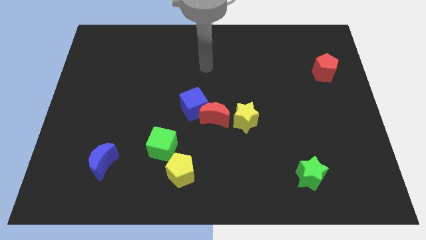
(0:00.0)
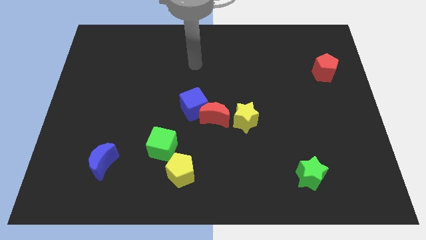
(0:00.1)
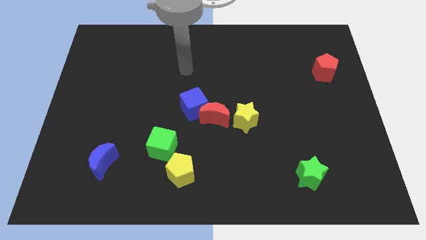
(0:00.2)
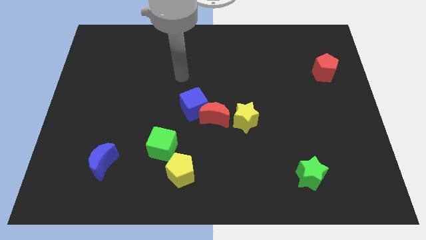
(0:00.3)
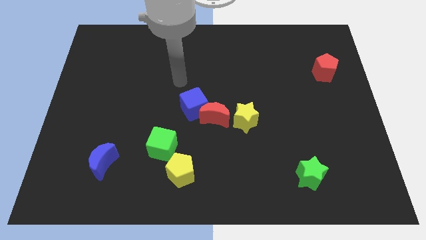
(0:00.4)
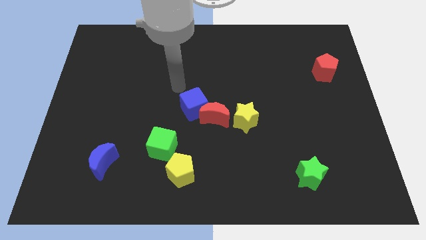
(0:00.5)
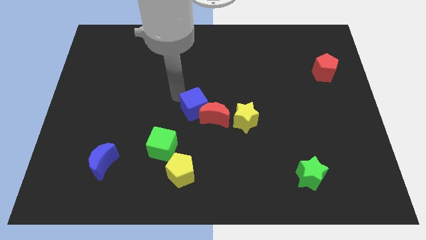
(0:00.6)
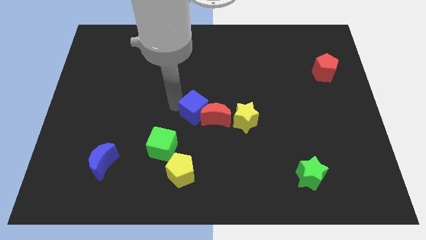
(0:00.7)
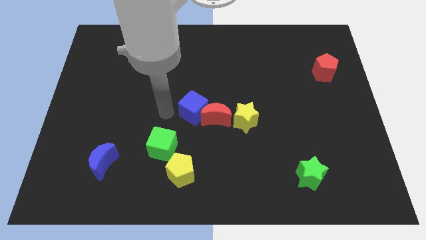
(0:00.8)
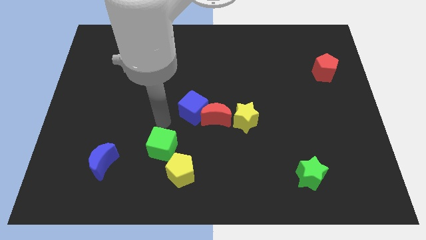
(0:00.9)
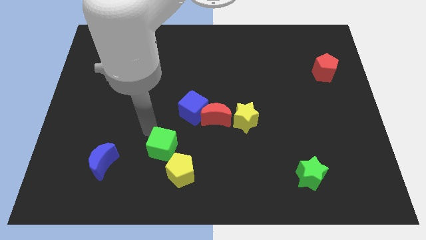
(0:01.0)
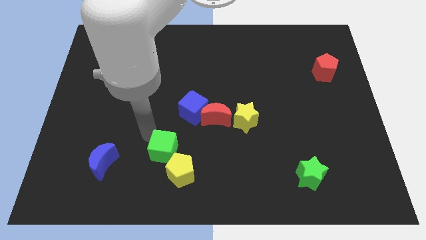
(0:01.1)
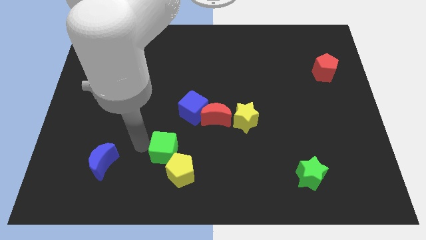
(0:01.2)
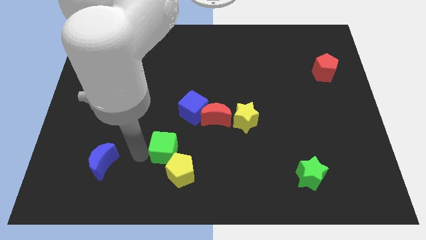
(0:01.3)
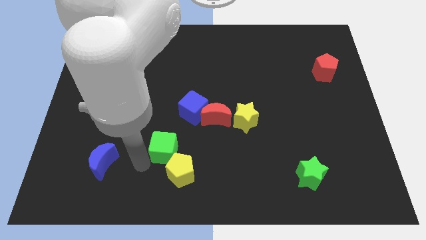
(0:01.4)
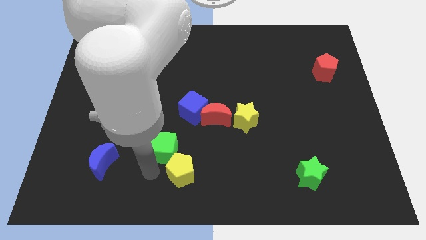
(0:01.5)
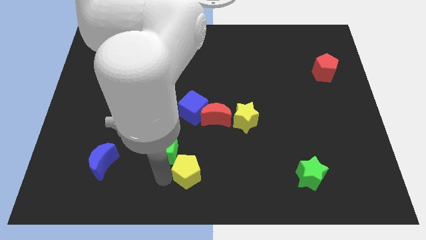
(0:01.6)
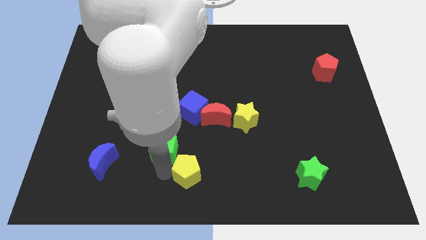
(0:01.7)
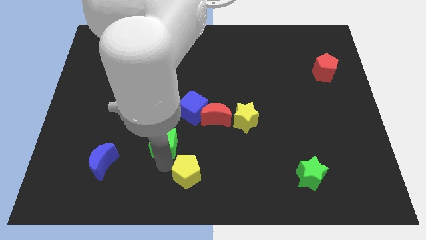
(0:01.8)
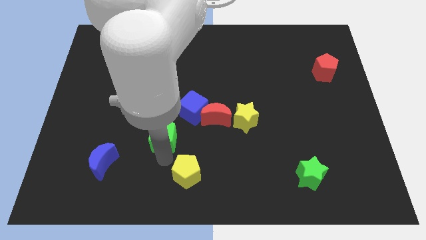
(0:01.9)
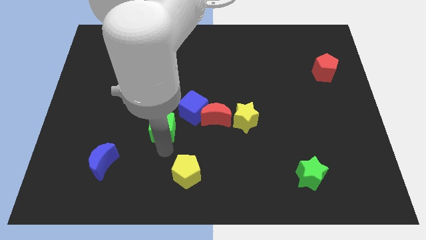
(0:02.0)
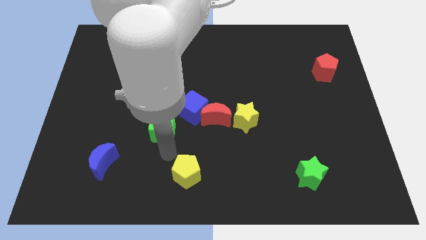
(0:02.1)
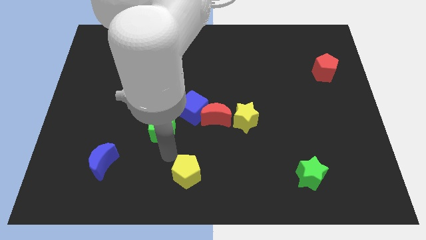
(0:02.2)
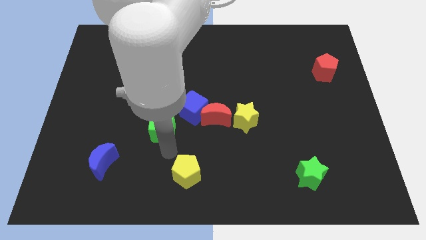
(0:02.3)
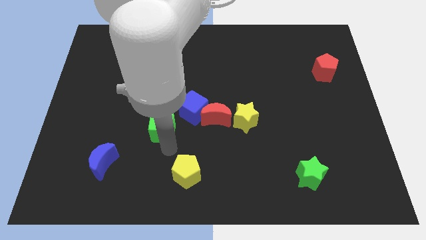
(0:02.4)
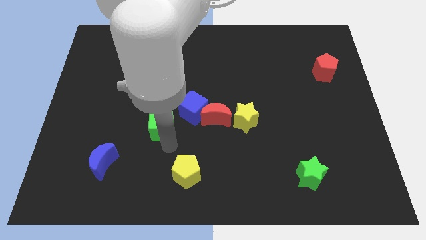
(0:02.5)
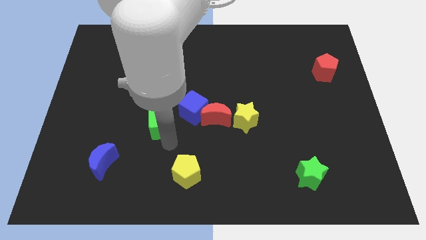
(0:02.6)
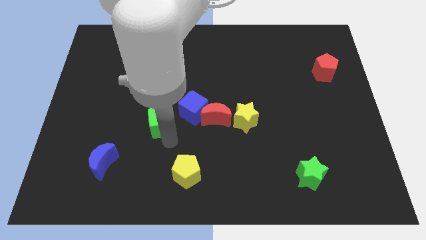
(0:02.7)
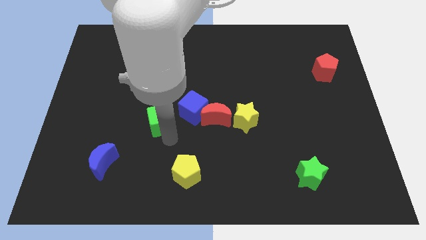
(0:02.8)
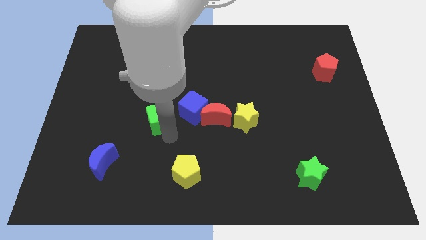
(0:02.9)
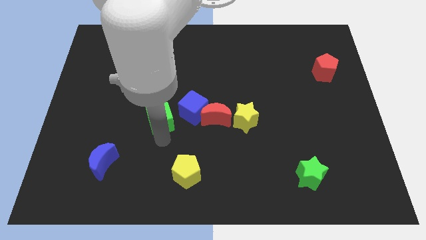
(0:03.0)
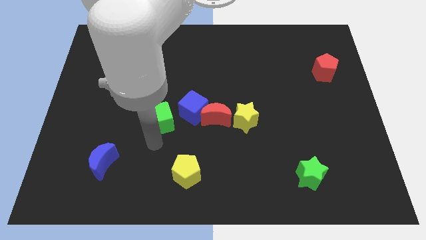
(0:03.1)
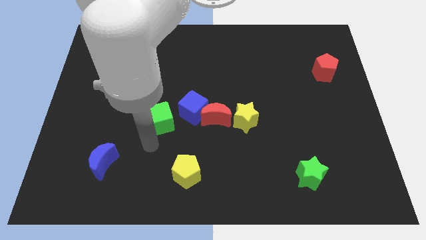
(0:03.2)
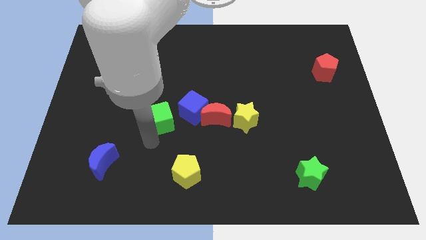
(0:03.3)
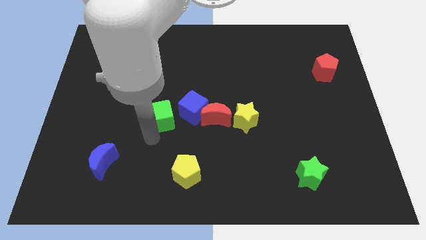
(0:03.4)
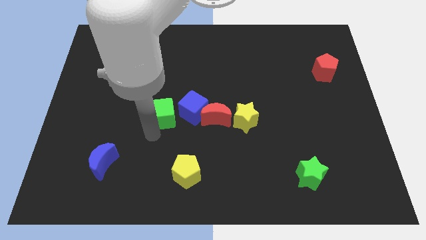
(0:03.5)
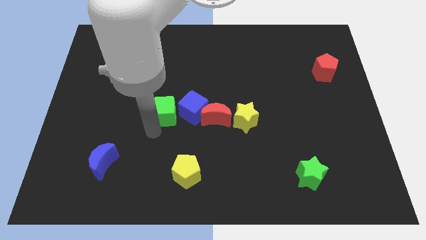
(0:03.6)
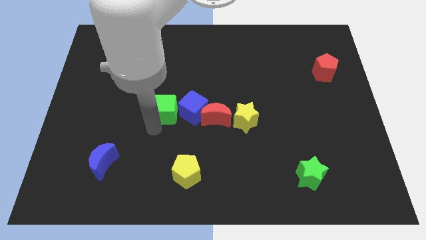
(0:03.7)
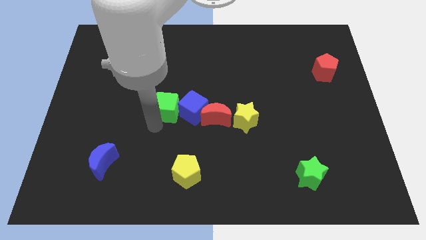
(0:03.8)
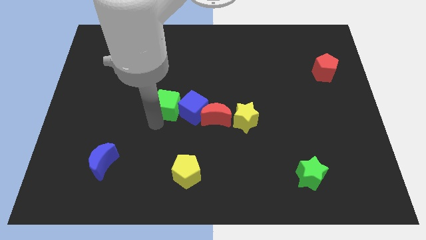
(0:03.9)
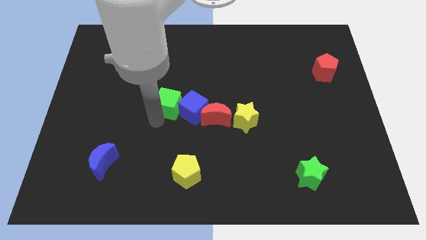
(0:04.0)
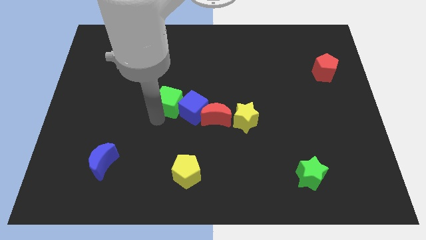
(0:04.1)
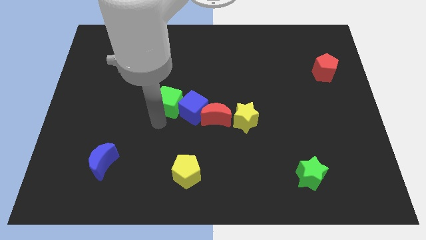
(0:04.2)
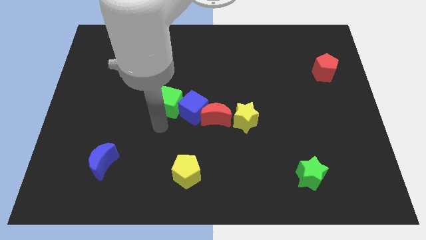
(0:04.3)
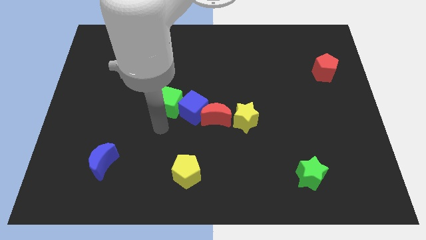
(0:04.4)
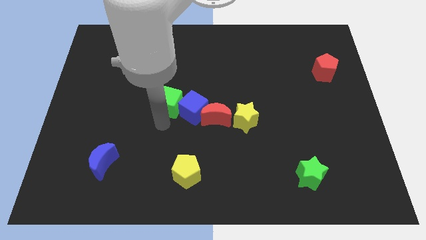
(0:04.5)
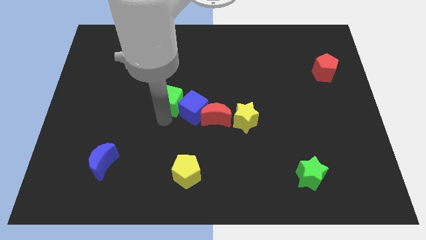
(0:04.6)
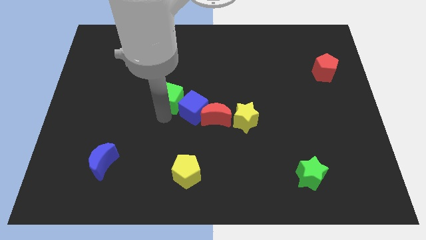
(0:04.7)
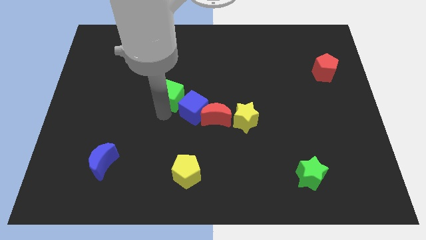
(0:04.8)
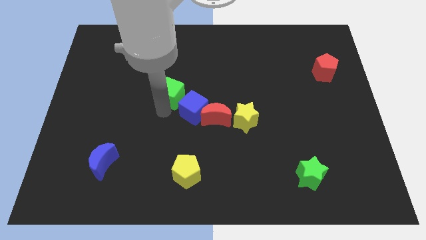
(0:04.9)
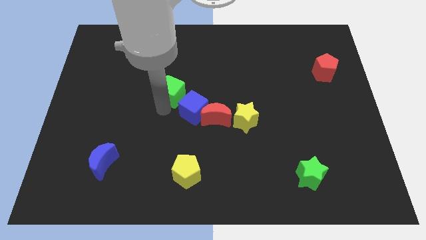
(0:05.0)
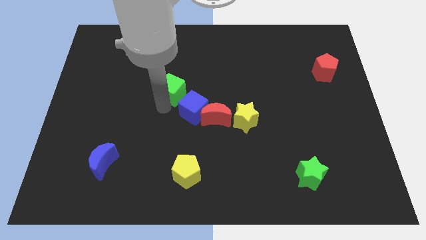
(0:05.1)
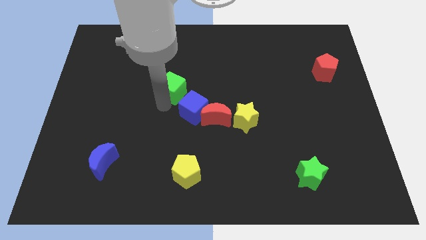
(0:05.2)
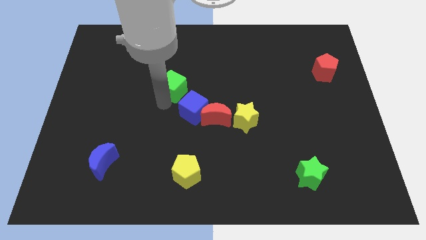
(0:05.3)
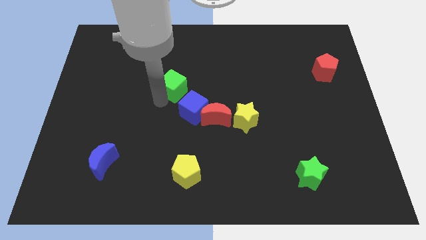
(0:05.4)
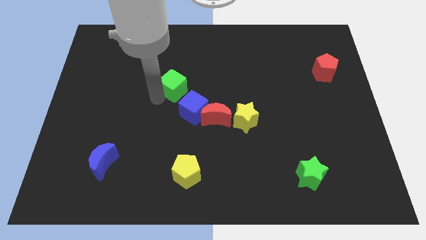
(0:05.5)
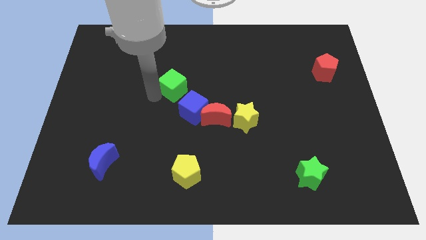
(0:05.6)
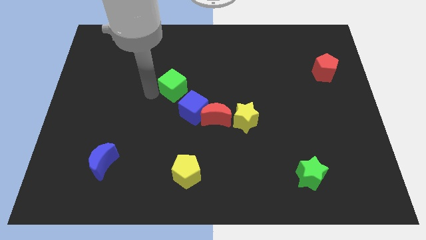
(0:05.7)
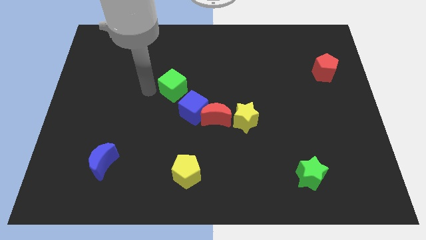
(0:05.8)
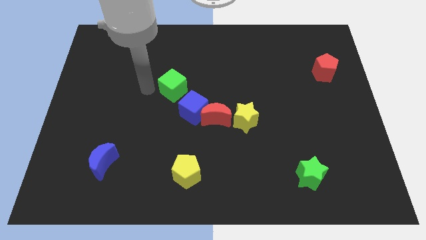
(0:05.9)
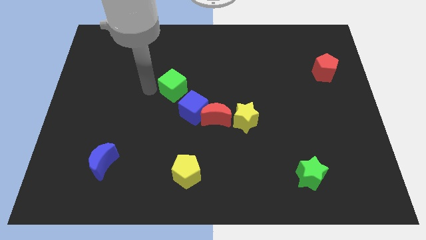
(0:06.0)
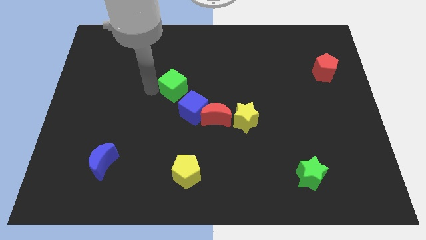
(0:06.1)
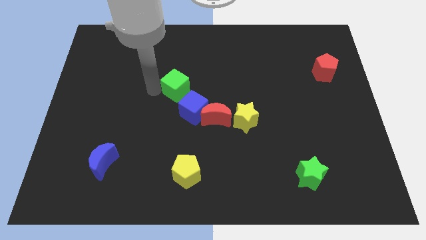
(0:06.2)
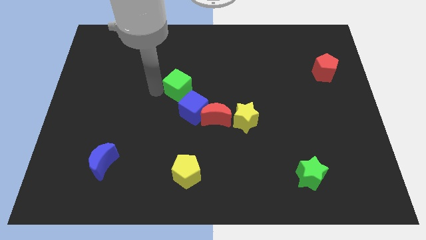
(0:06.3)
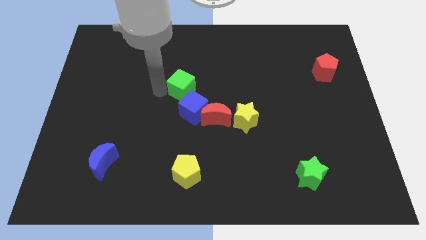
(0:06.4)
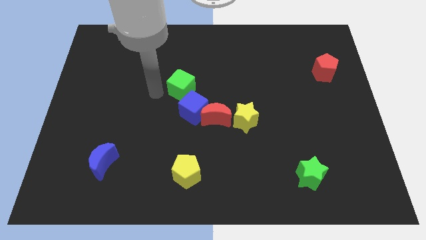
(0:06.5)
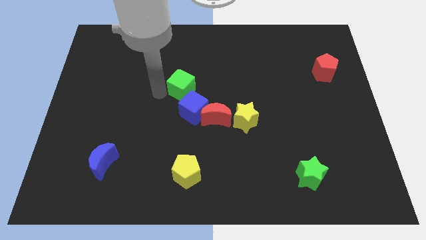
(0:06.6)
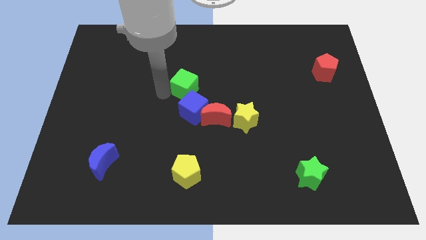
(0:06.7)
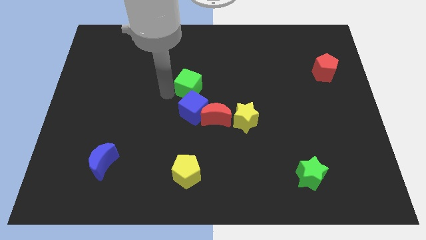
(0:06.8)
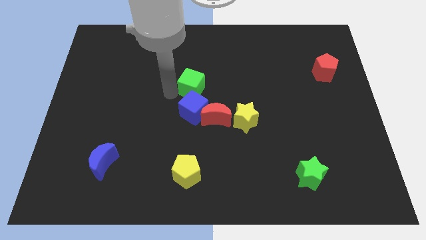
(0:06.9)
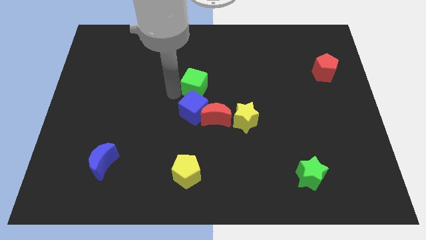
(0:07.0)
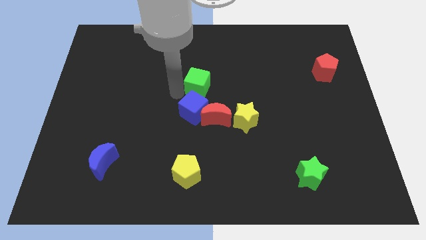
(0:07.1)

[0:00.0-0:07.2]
put the green cube to the top of the red moon
